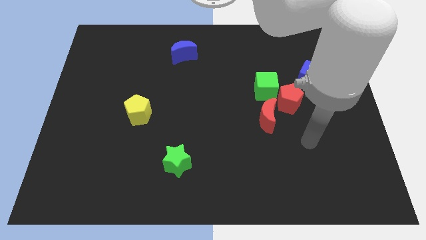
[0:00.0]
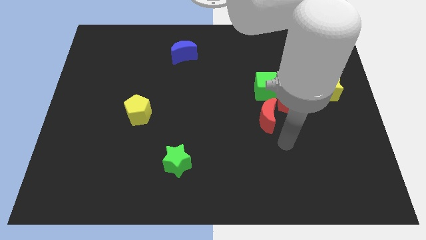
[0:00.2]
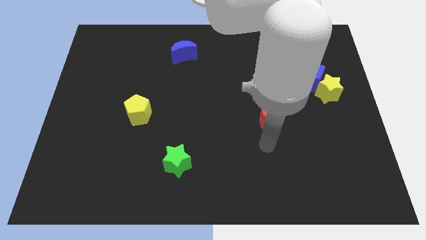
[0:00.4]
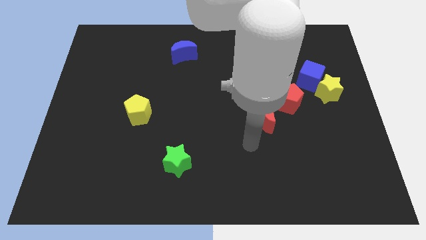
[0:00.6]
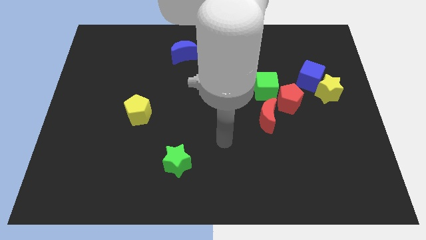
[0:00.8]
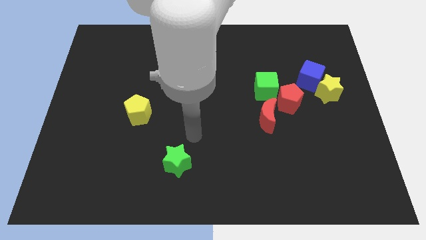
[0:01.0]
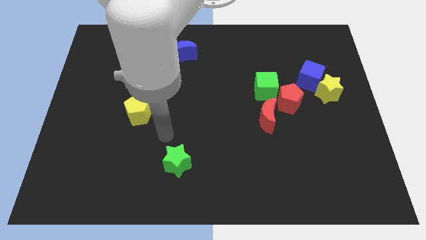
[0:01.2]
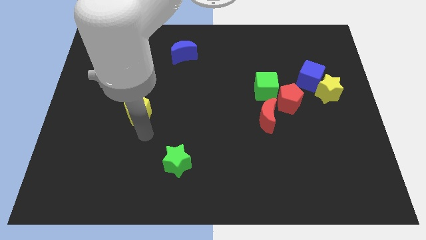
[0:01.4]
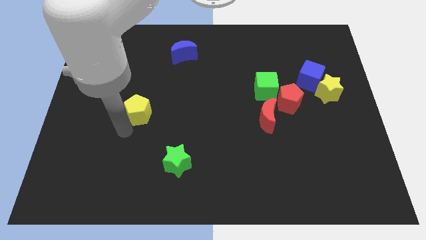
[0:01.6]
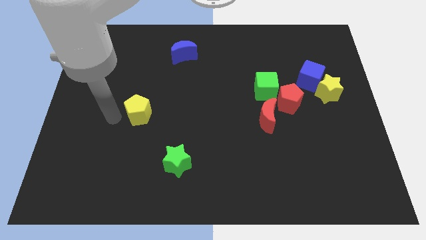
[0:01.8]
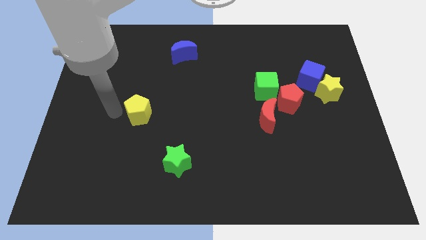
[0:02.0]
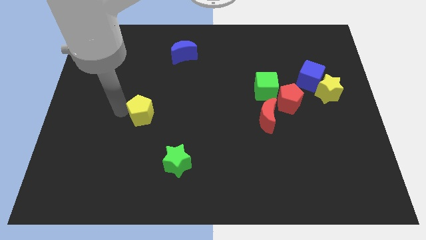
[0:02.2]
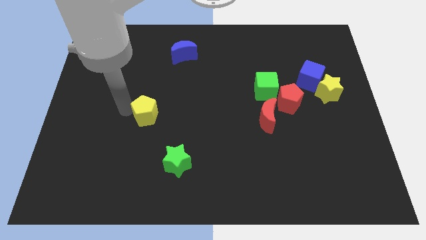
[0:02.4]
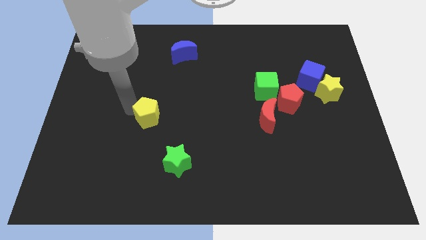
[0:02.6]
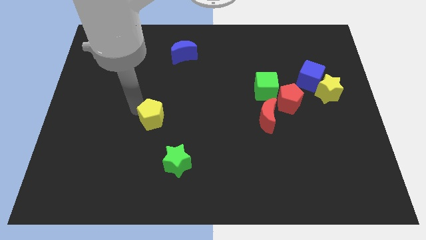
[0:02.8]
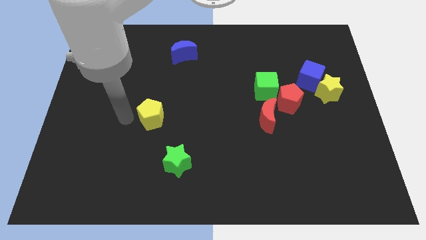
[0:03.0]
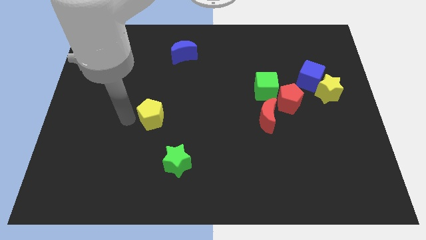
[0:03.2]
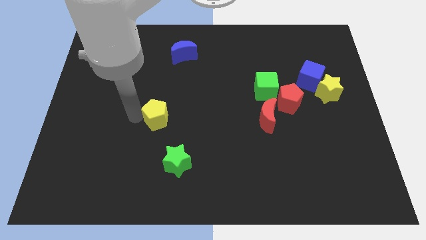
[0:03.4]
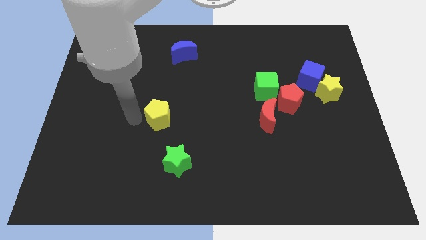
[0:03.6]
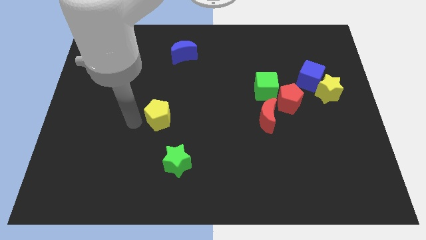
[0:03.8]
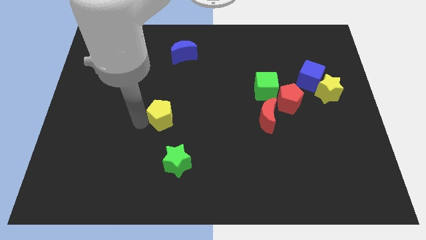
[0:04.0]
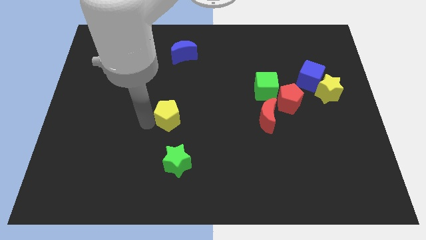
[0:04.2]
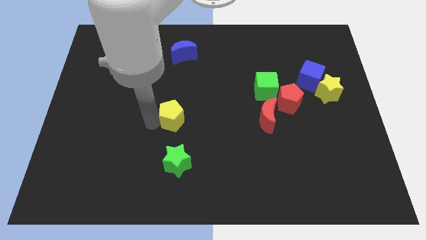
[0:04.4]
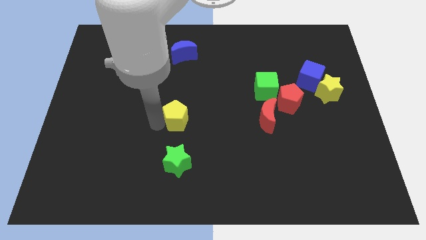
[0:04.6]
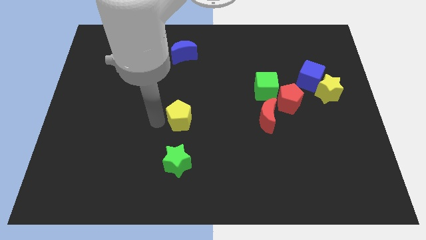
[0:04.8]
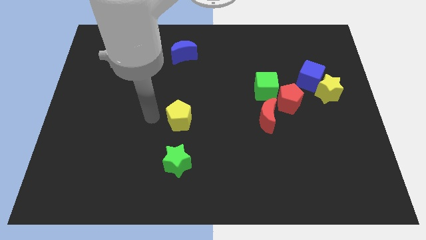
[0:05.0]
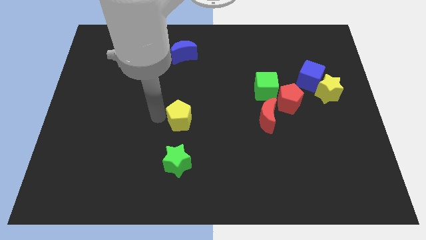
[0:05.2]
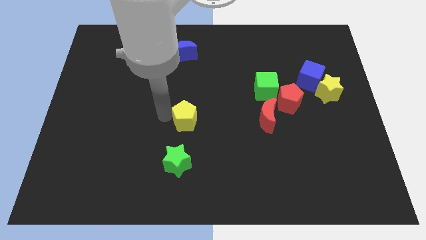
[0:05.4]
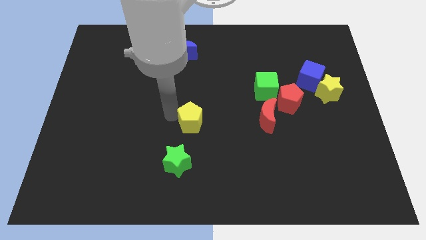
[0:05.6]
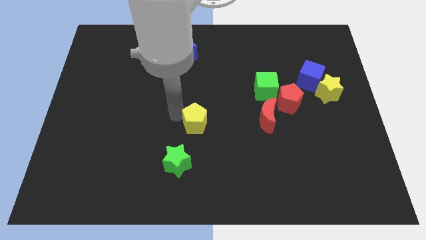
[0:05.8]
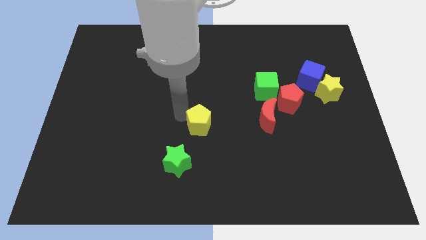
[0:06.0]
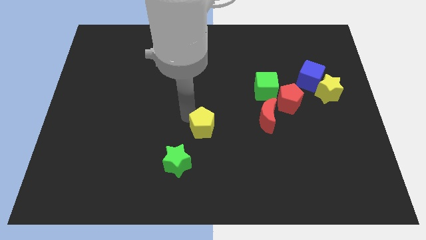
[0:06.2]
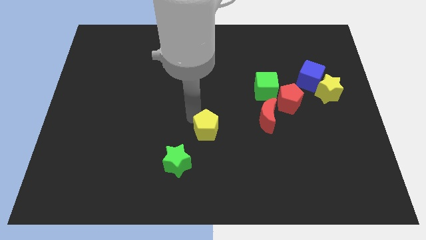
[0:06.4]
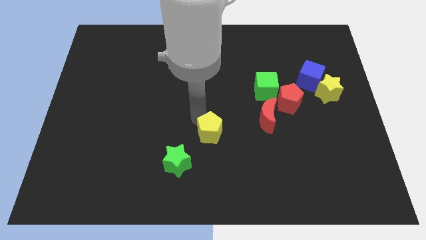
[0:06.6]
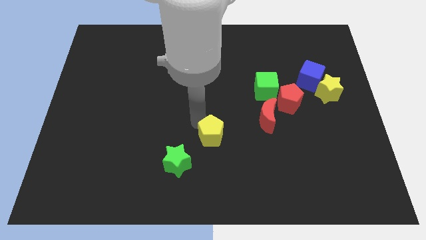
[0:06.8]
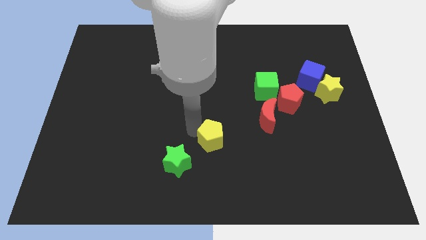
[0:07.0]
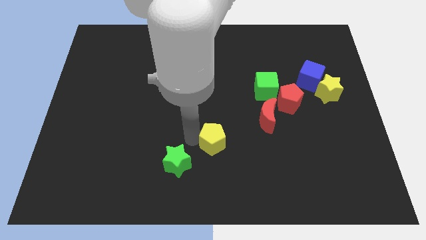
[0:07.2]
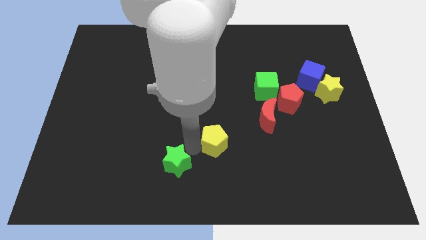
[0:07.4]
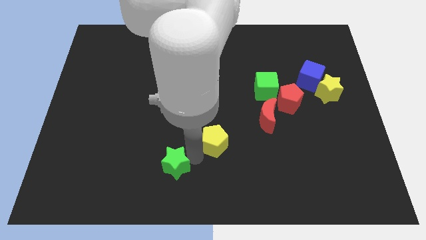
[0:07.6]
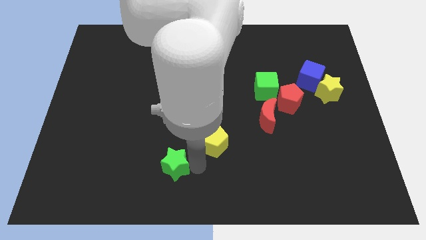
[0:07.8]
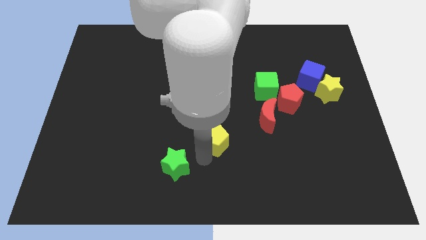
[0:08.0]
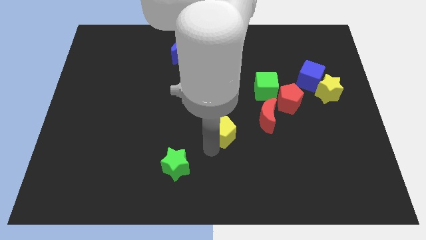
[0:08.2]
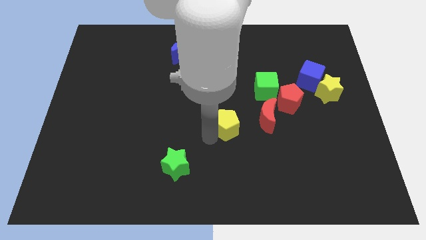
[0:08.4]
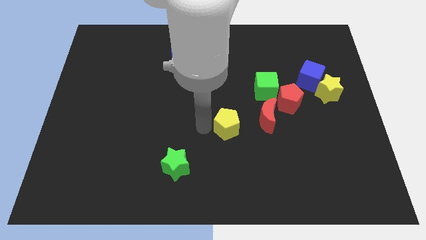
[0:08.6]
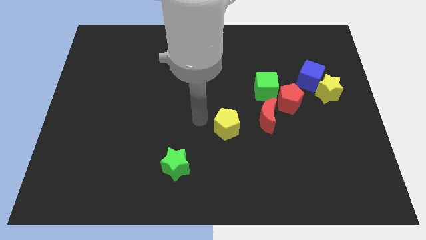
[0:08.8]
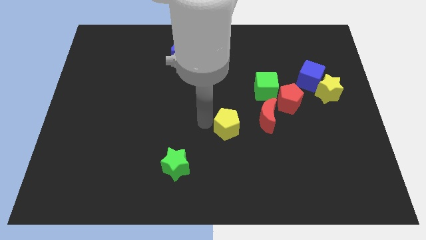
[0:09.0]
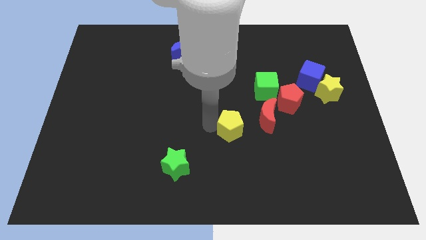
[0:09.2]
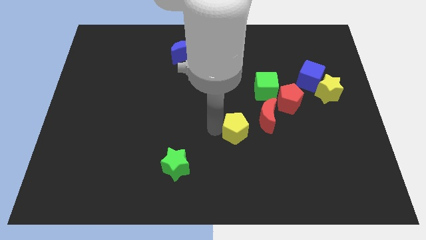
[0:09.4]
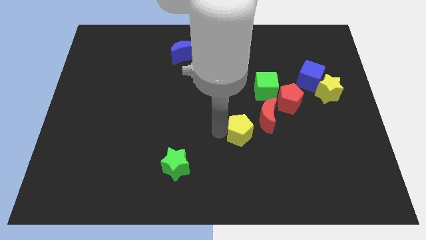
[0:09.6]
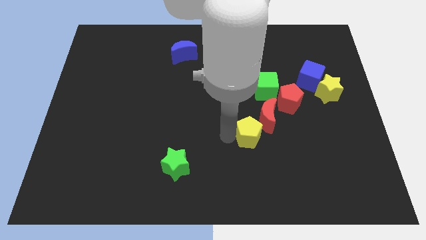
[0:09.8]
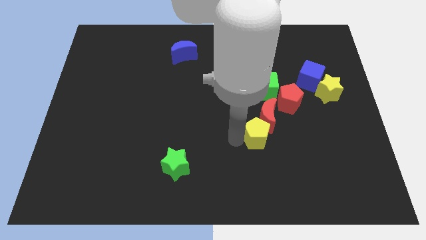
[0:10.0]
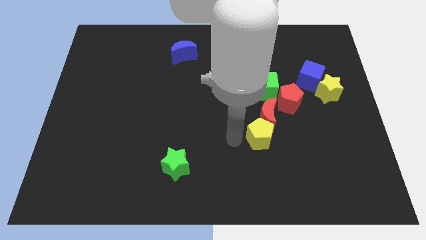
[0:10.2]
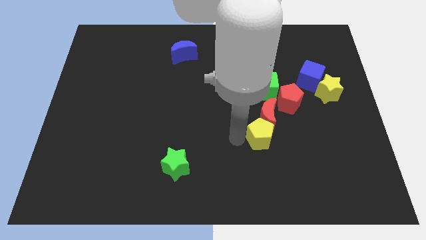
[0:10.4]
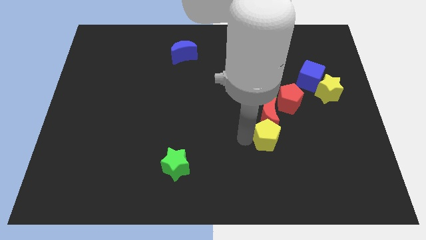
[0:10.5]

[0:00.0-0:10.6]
move the yellow pentagon to the bottom right of the red moon
